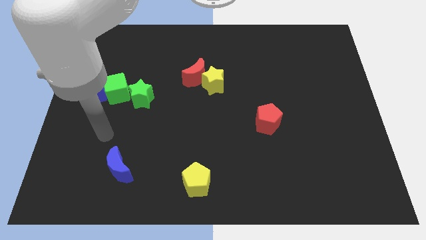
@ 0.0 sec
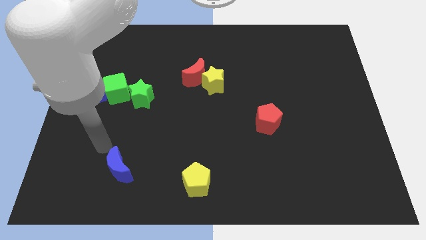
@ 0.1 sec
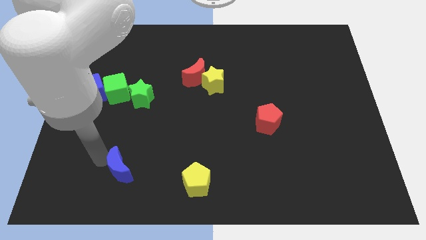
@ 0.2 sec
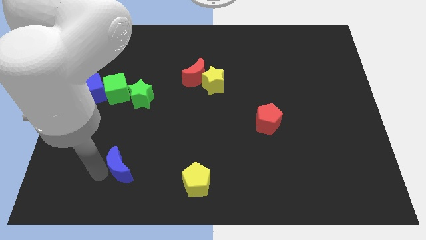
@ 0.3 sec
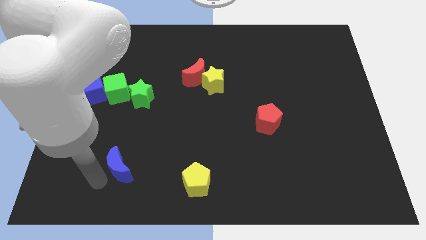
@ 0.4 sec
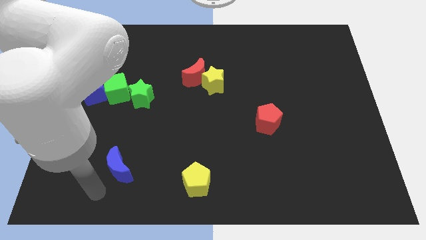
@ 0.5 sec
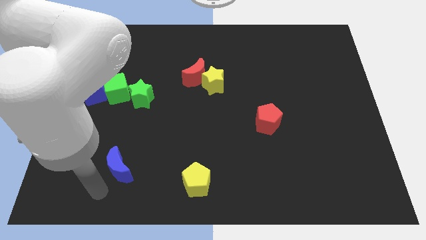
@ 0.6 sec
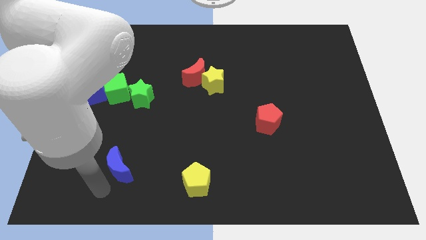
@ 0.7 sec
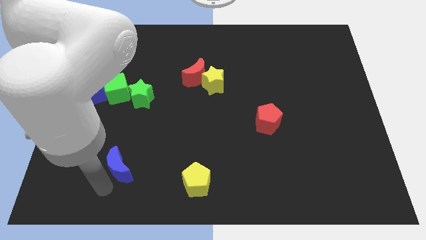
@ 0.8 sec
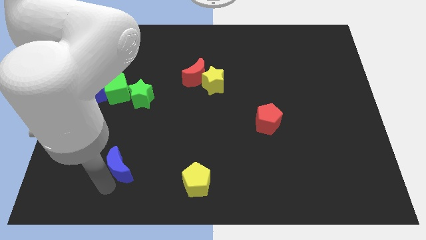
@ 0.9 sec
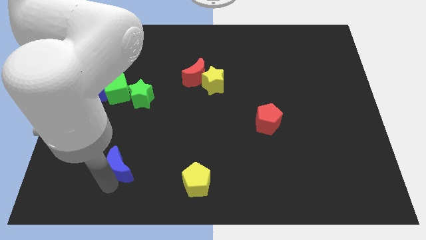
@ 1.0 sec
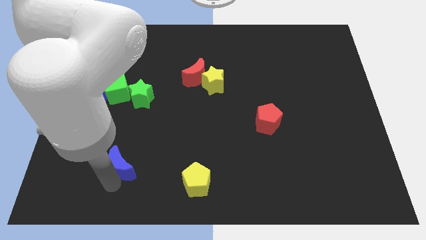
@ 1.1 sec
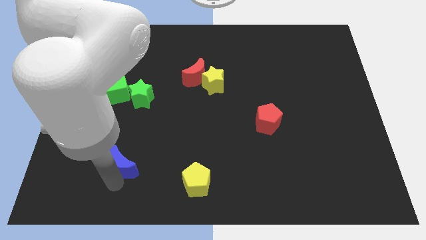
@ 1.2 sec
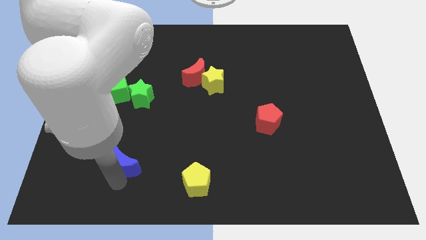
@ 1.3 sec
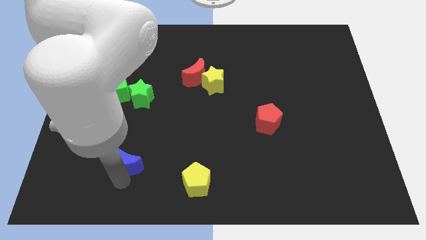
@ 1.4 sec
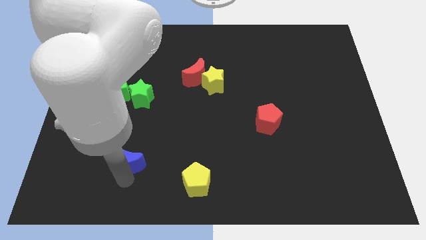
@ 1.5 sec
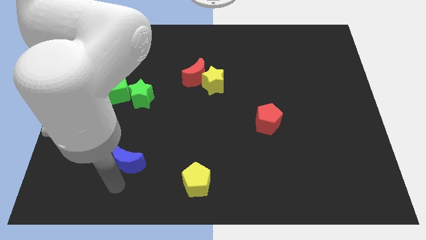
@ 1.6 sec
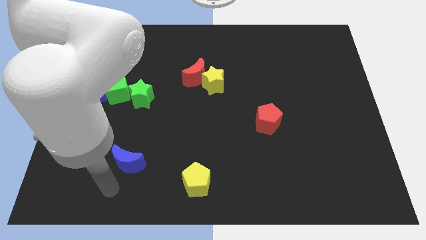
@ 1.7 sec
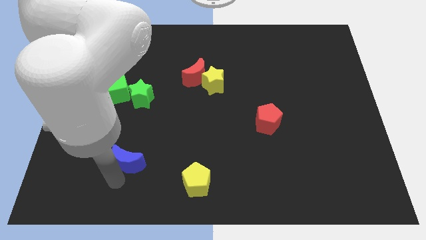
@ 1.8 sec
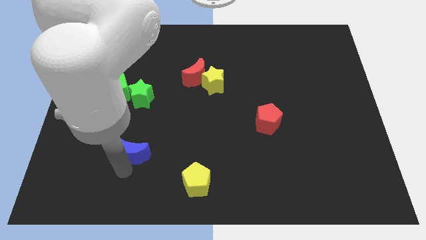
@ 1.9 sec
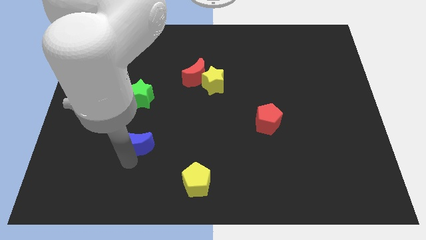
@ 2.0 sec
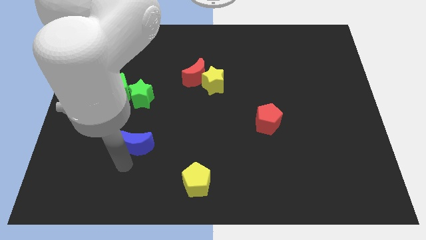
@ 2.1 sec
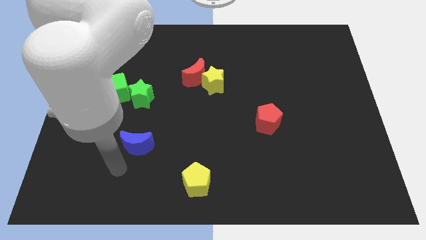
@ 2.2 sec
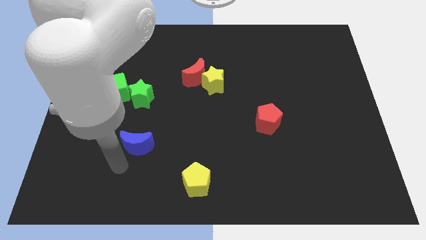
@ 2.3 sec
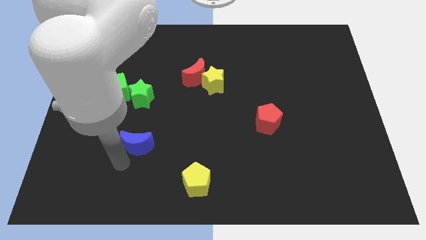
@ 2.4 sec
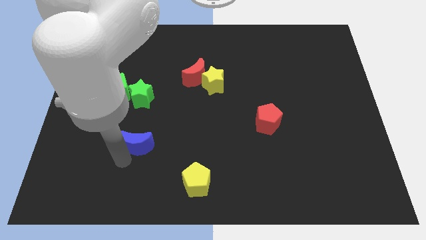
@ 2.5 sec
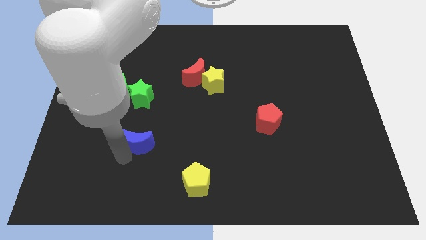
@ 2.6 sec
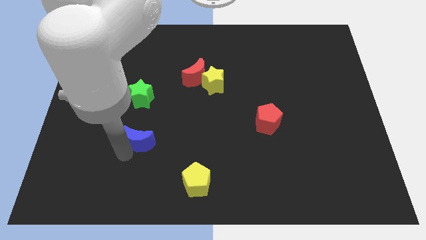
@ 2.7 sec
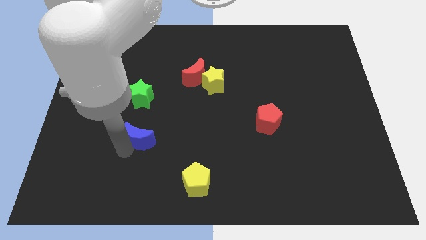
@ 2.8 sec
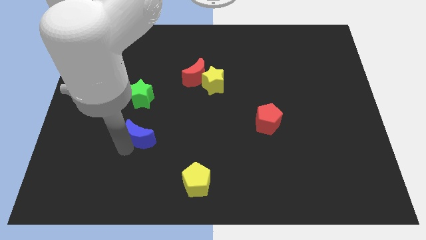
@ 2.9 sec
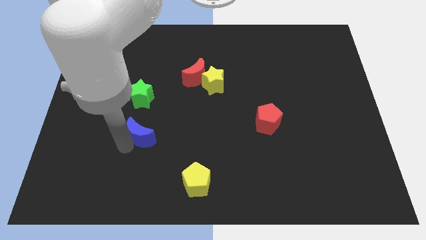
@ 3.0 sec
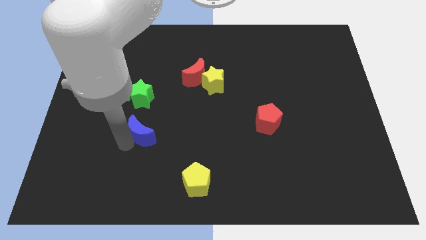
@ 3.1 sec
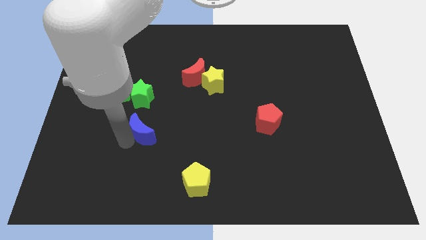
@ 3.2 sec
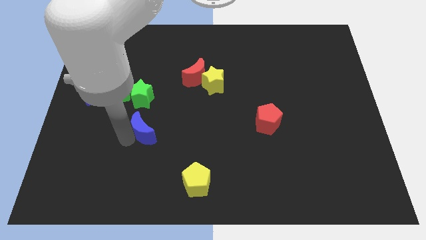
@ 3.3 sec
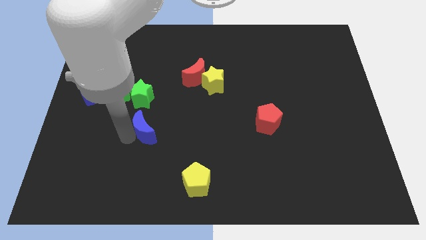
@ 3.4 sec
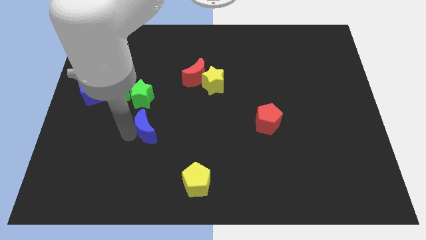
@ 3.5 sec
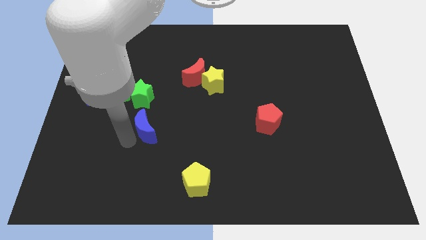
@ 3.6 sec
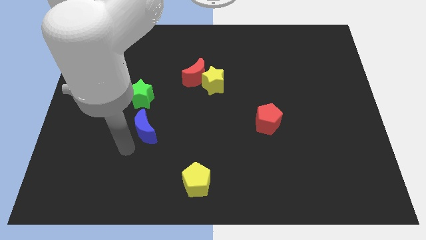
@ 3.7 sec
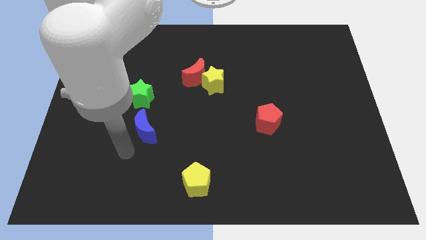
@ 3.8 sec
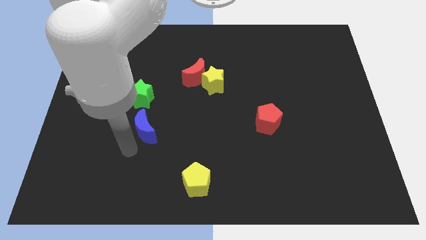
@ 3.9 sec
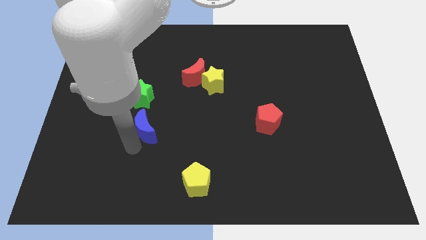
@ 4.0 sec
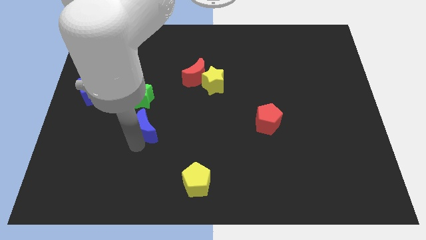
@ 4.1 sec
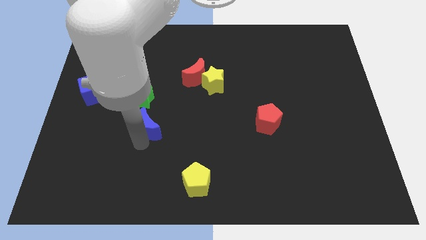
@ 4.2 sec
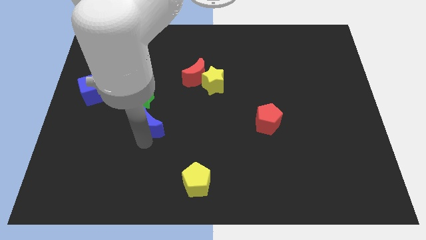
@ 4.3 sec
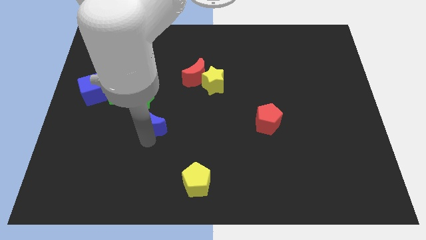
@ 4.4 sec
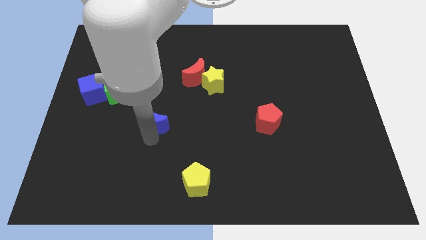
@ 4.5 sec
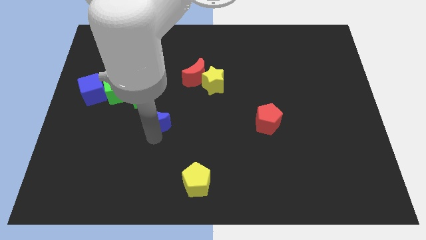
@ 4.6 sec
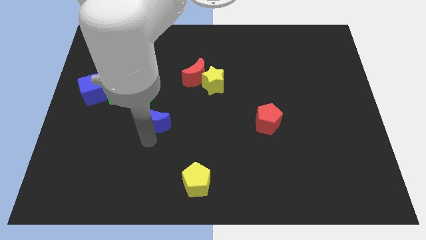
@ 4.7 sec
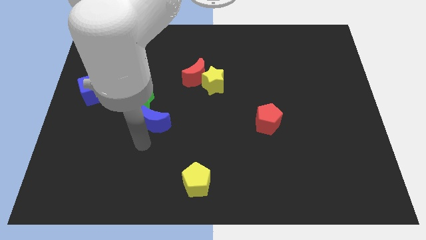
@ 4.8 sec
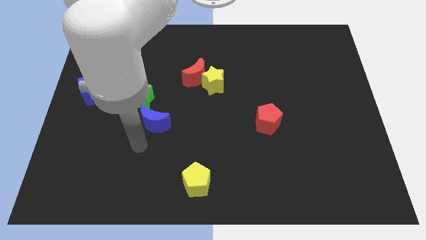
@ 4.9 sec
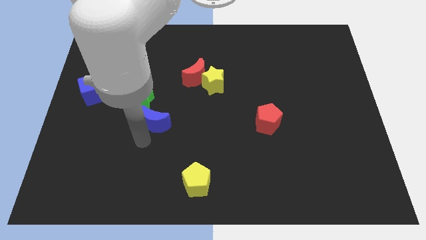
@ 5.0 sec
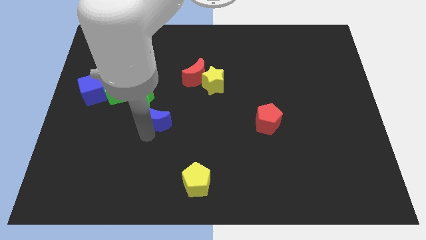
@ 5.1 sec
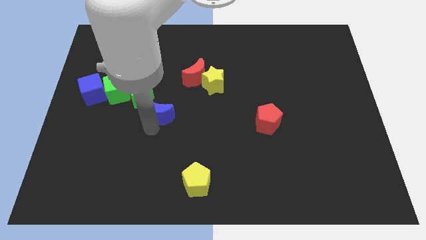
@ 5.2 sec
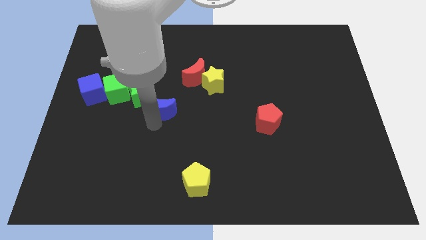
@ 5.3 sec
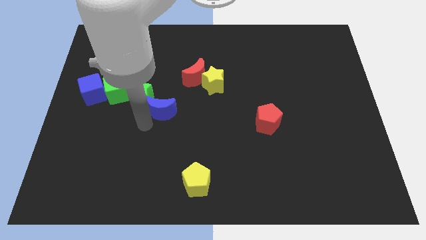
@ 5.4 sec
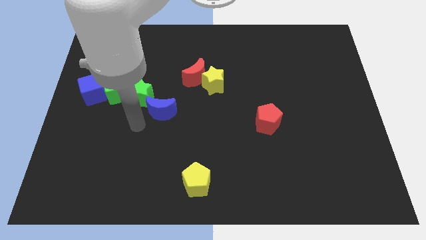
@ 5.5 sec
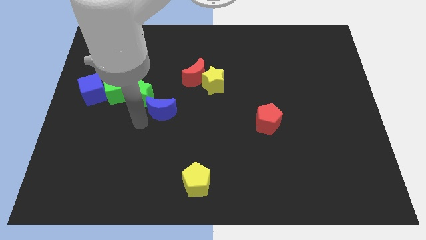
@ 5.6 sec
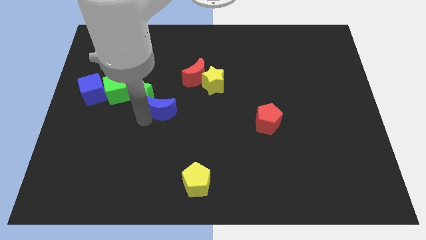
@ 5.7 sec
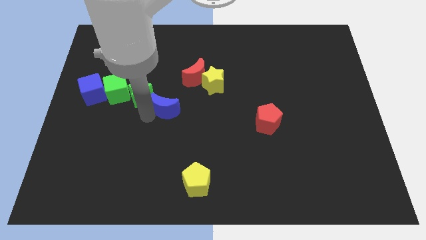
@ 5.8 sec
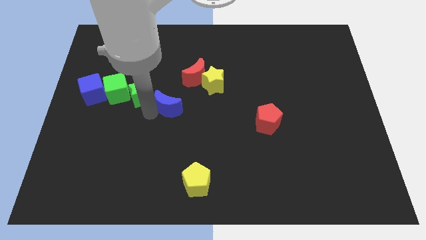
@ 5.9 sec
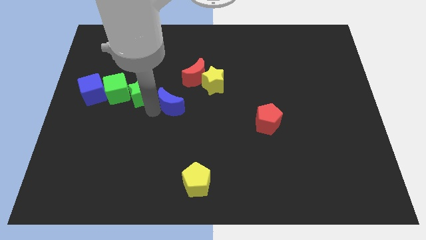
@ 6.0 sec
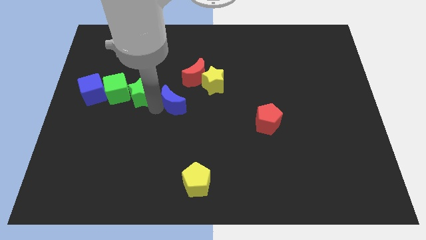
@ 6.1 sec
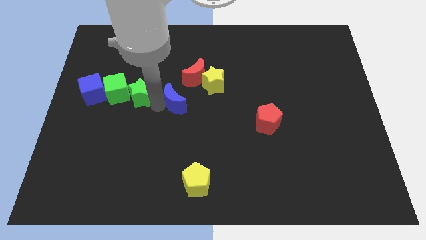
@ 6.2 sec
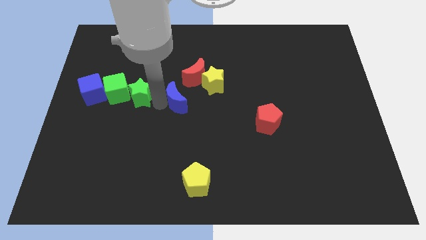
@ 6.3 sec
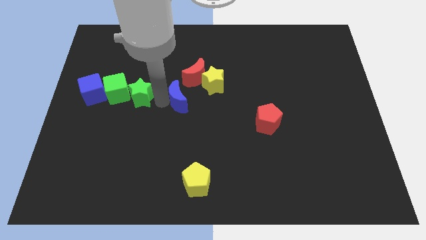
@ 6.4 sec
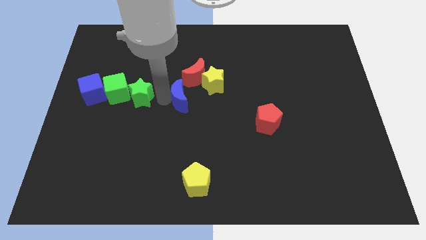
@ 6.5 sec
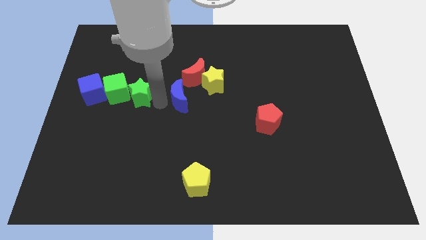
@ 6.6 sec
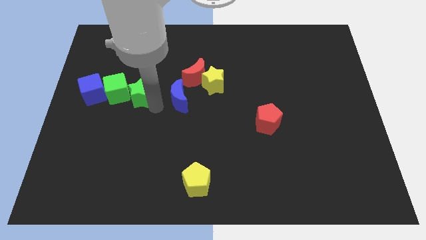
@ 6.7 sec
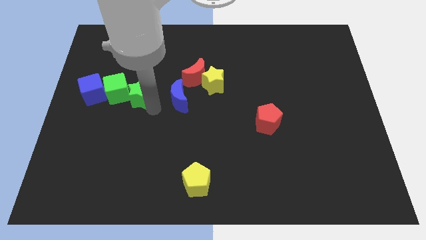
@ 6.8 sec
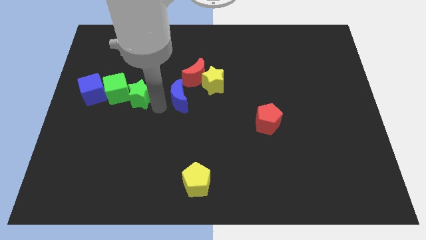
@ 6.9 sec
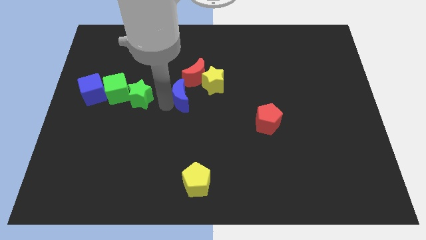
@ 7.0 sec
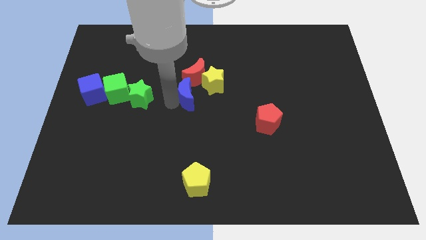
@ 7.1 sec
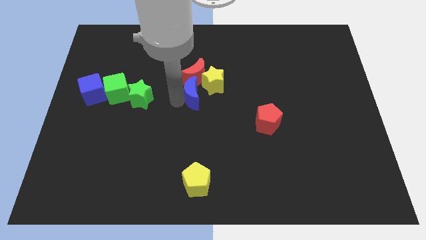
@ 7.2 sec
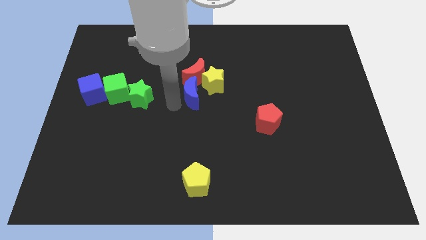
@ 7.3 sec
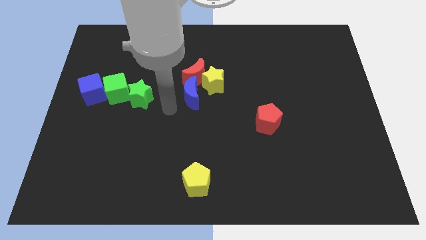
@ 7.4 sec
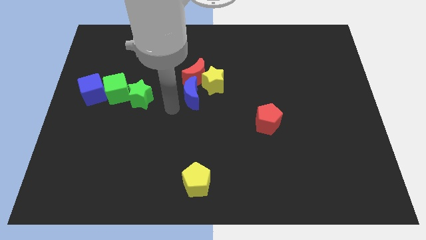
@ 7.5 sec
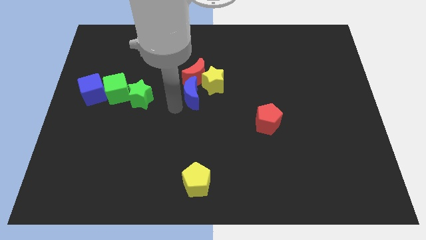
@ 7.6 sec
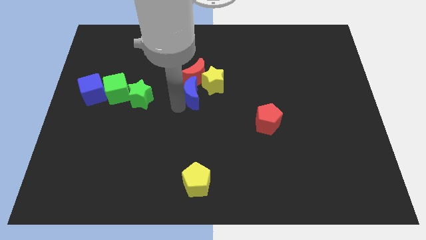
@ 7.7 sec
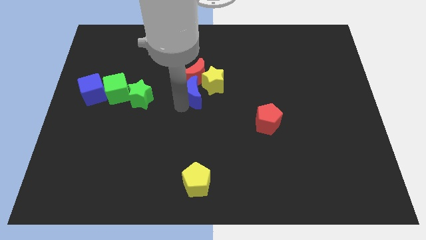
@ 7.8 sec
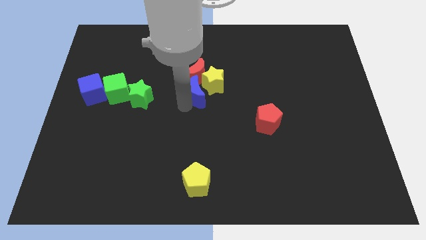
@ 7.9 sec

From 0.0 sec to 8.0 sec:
push the blue moon close to the yellow star

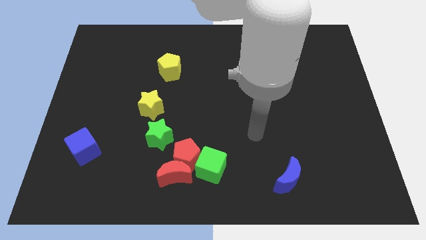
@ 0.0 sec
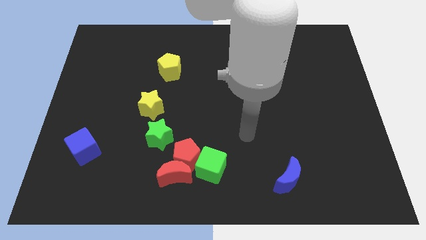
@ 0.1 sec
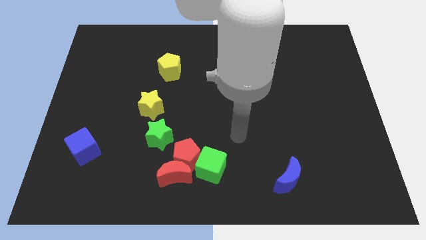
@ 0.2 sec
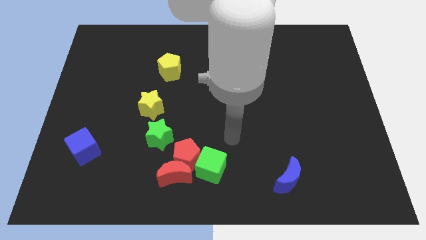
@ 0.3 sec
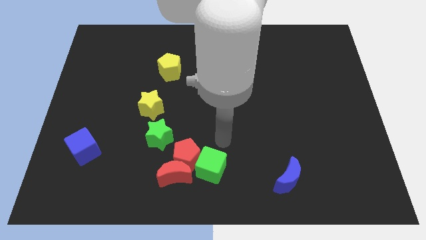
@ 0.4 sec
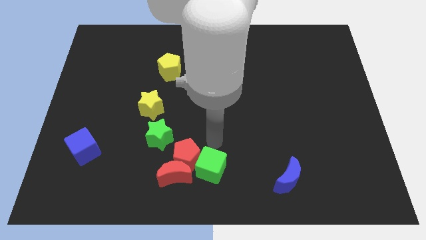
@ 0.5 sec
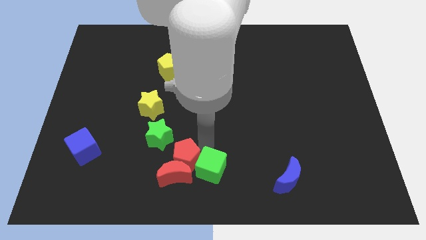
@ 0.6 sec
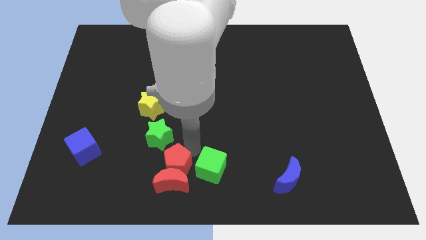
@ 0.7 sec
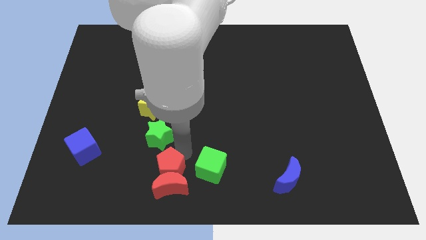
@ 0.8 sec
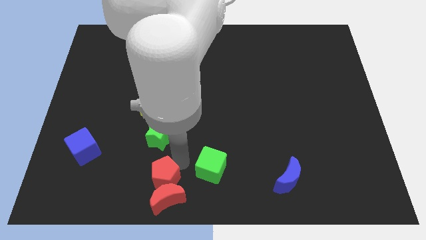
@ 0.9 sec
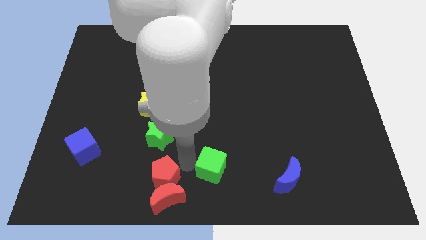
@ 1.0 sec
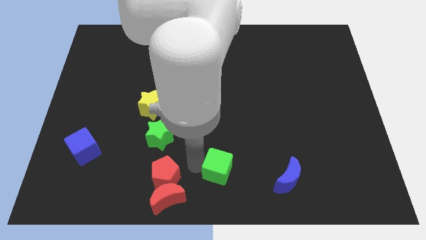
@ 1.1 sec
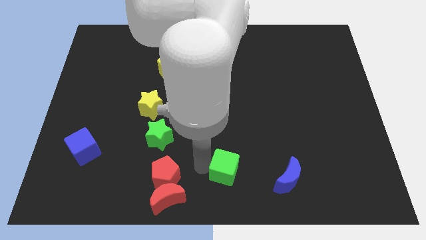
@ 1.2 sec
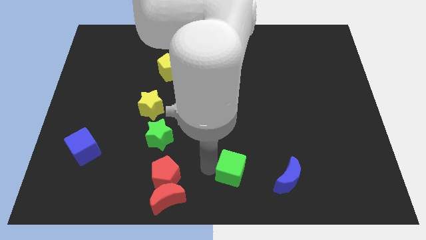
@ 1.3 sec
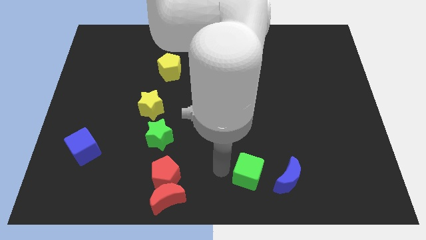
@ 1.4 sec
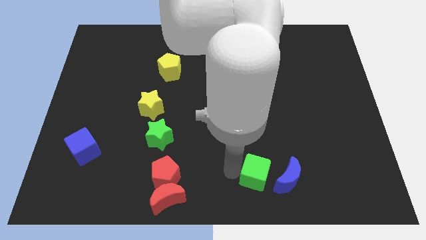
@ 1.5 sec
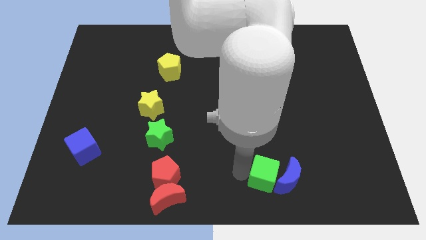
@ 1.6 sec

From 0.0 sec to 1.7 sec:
move the green cube close to the blue moon
